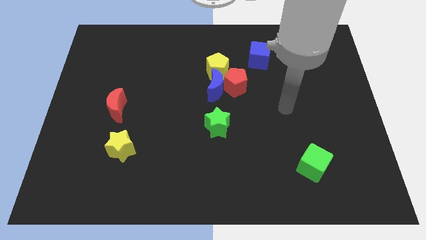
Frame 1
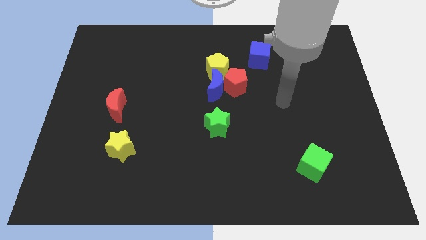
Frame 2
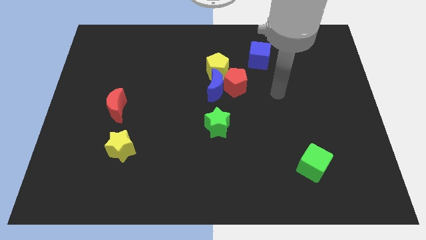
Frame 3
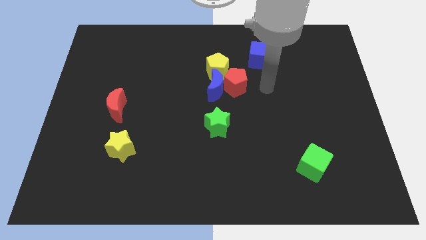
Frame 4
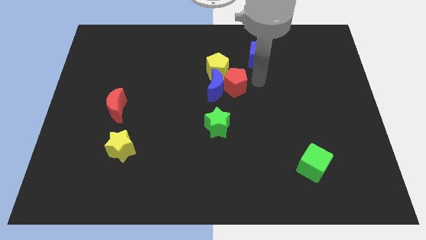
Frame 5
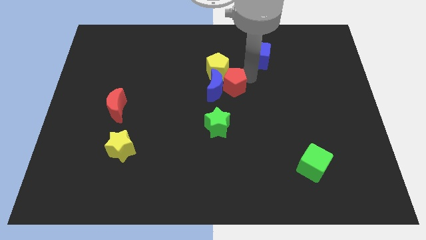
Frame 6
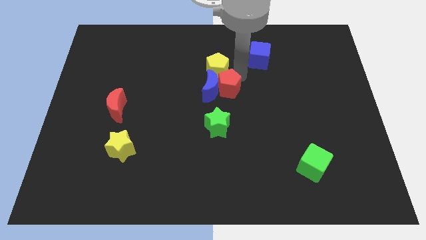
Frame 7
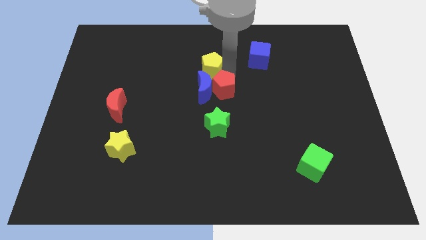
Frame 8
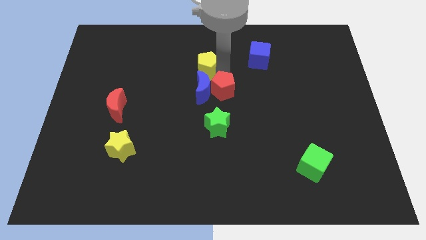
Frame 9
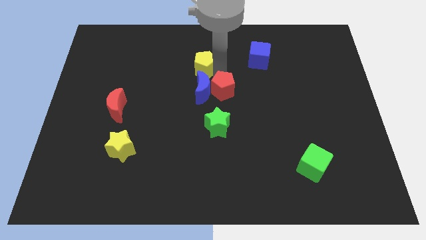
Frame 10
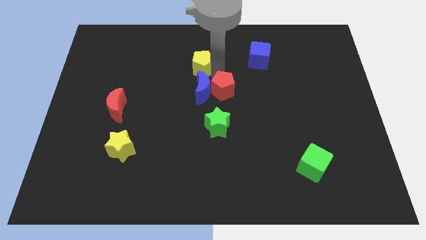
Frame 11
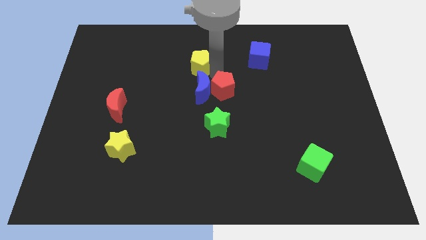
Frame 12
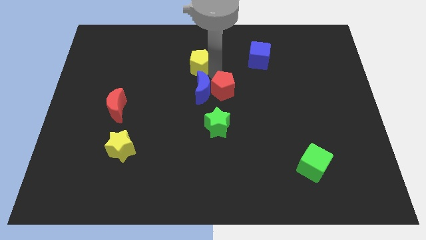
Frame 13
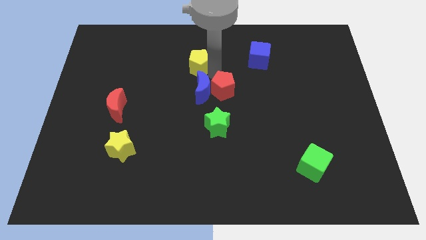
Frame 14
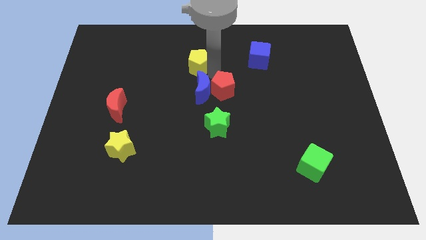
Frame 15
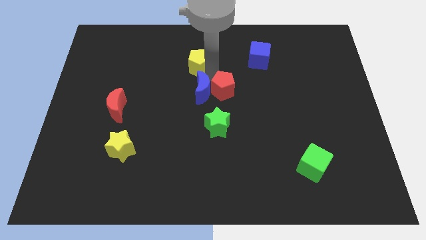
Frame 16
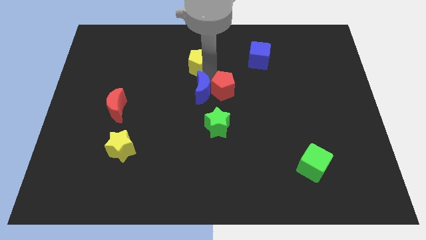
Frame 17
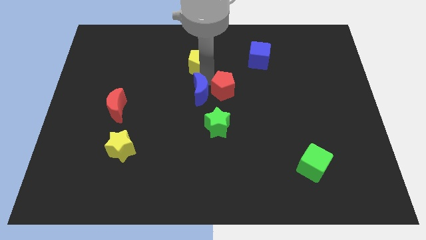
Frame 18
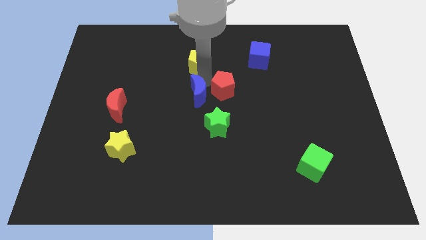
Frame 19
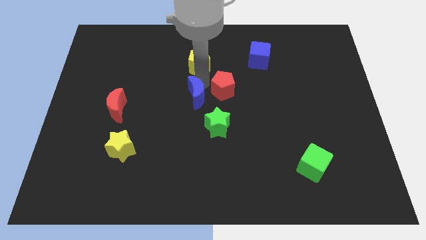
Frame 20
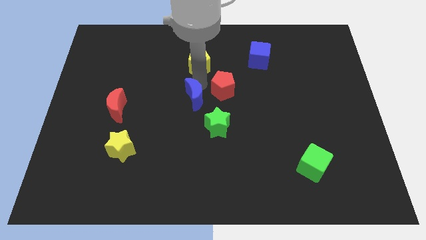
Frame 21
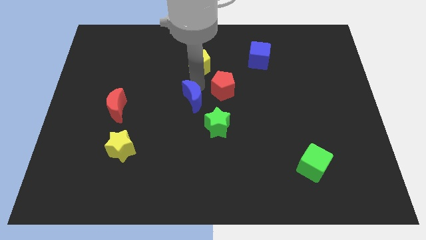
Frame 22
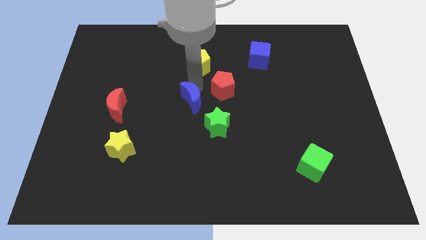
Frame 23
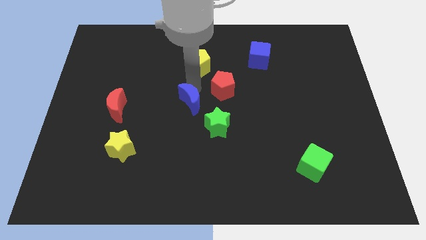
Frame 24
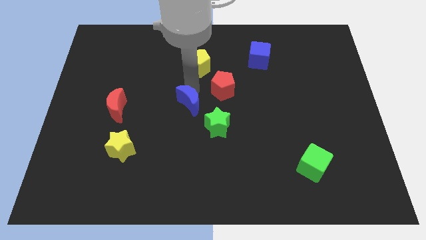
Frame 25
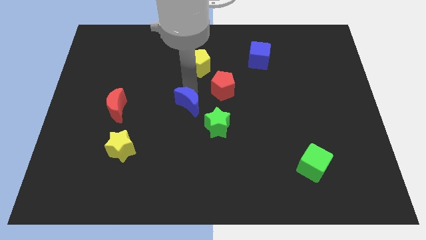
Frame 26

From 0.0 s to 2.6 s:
separate the blue moon from the red pentagon and yellow pentagon

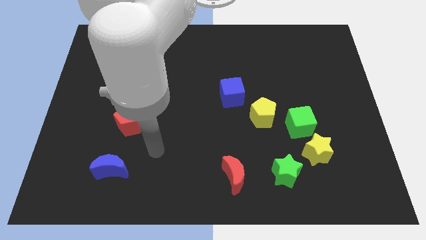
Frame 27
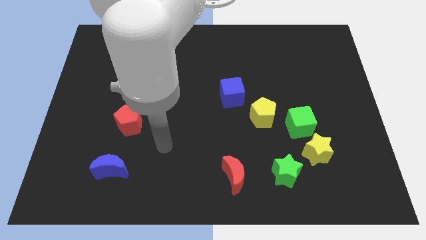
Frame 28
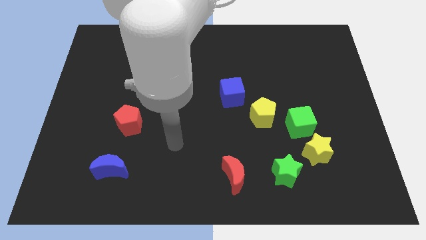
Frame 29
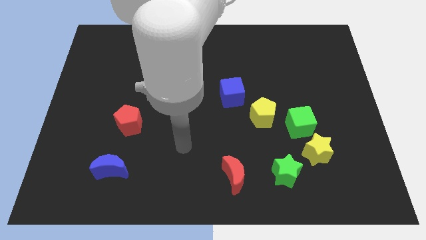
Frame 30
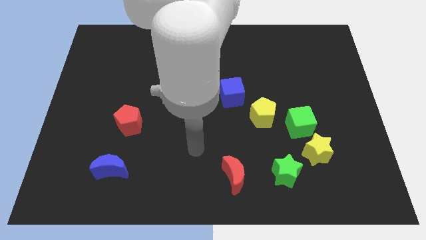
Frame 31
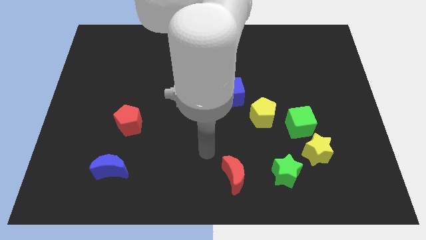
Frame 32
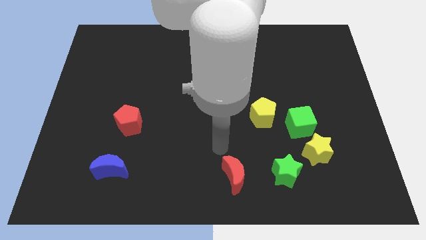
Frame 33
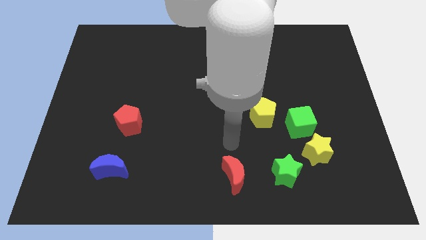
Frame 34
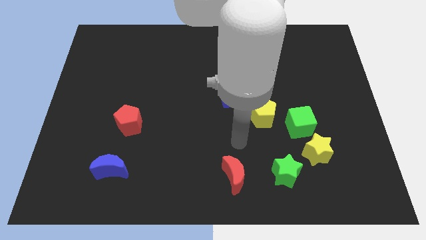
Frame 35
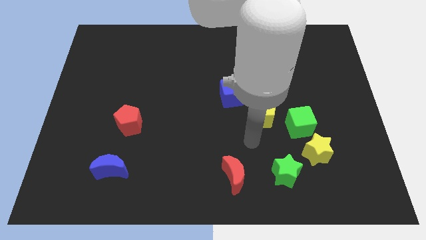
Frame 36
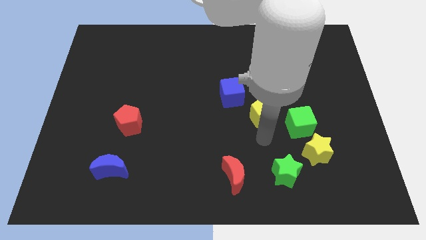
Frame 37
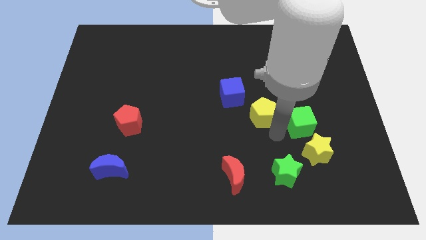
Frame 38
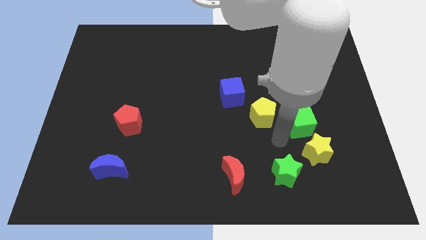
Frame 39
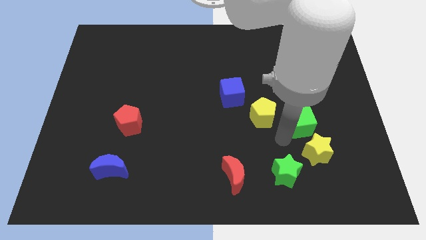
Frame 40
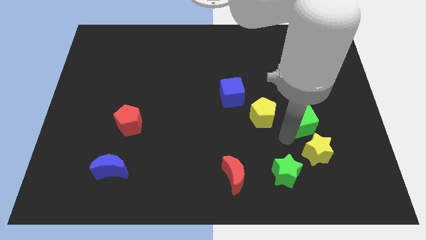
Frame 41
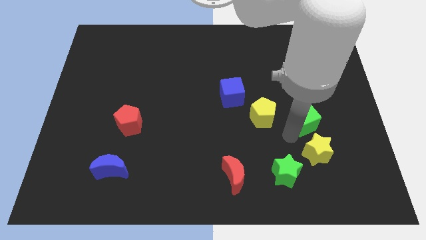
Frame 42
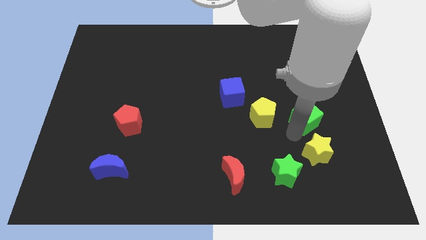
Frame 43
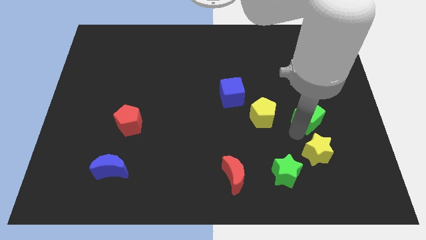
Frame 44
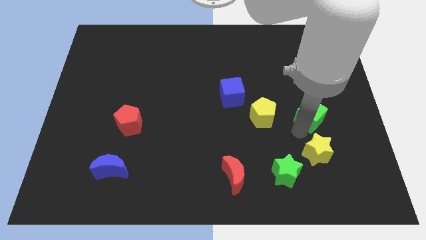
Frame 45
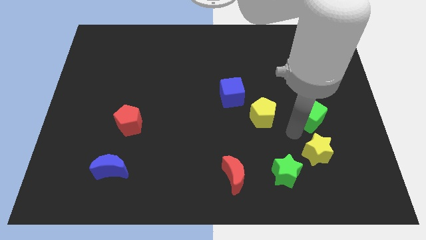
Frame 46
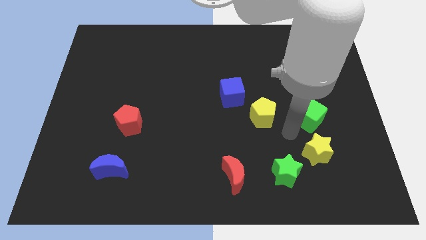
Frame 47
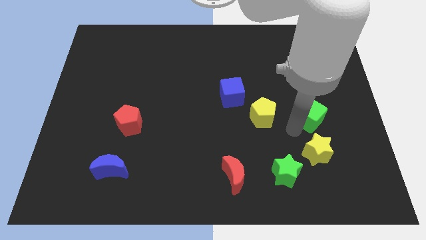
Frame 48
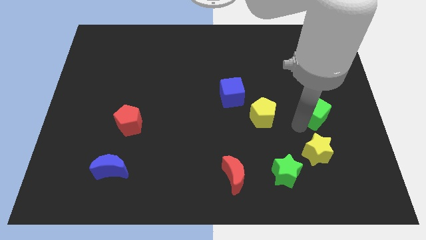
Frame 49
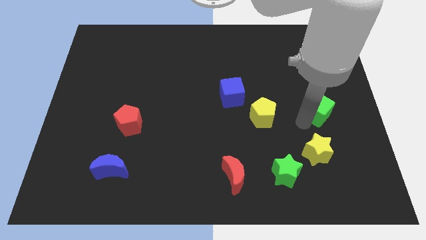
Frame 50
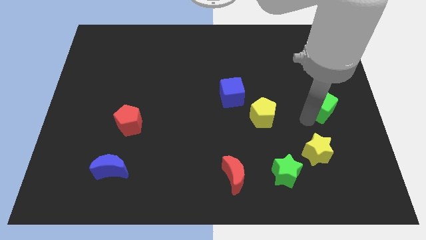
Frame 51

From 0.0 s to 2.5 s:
pull the green cube apart from the yellow star and yellow pentagon

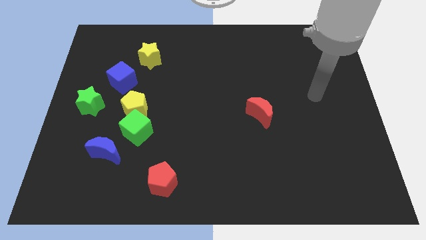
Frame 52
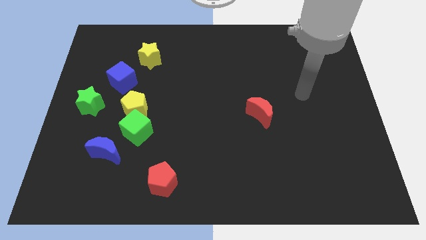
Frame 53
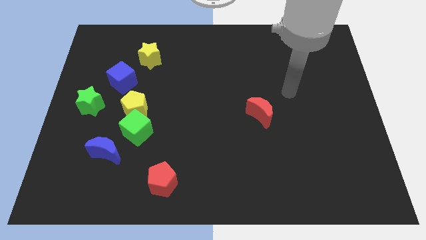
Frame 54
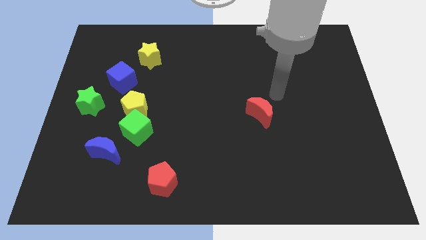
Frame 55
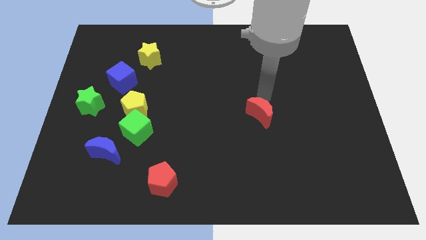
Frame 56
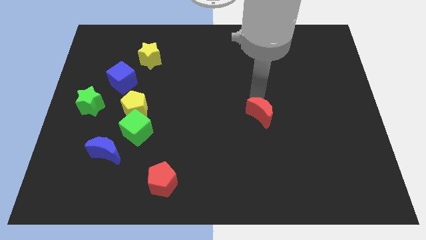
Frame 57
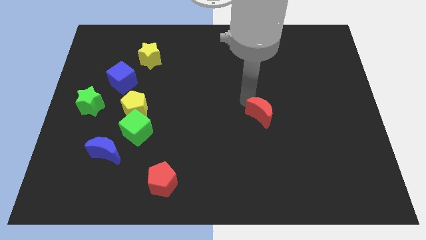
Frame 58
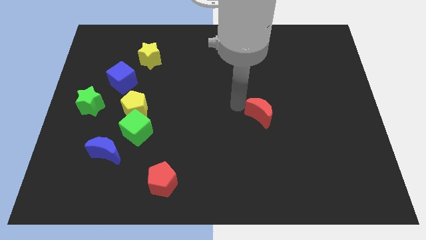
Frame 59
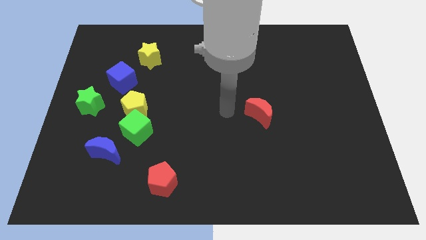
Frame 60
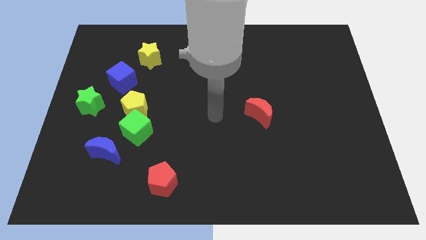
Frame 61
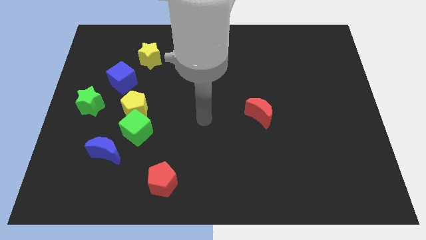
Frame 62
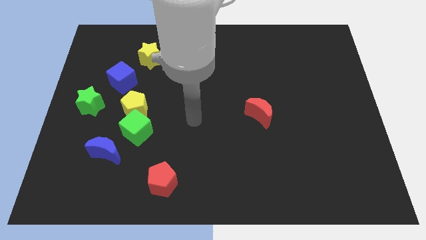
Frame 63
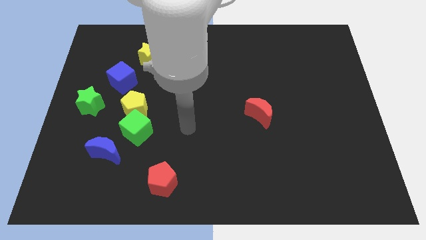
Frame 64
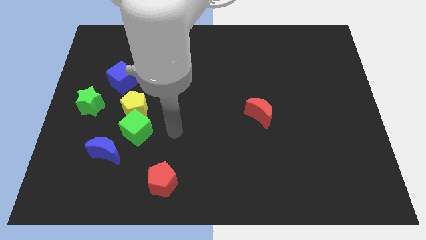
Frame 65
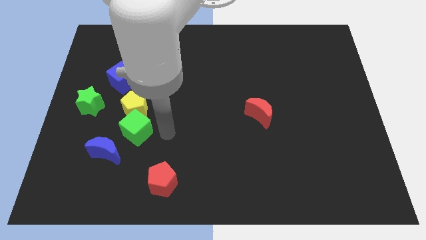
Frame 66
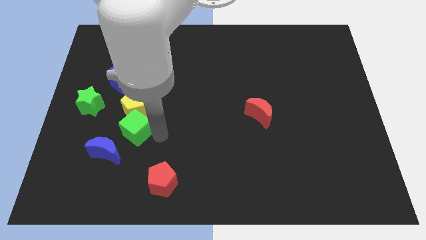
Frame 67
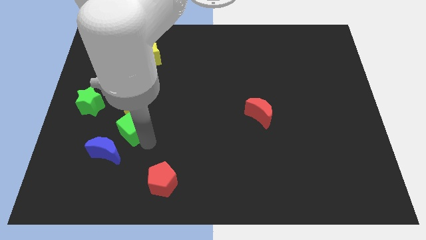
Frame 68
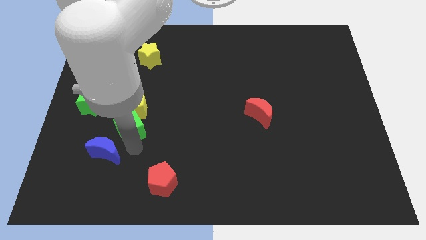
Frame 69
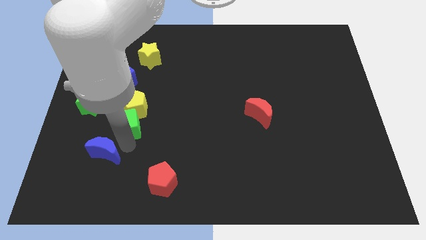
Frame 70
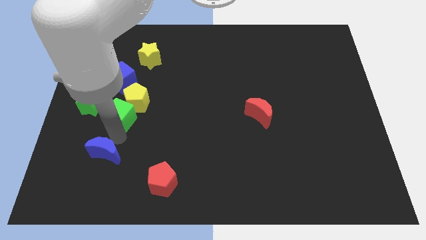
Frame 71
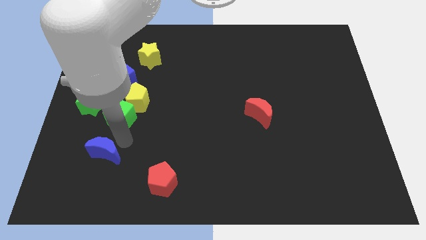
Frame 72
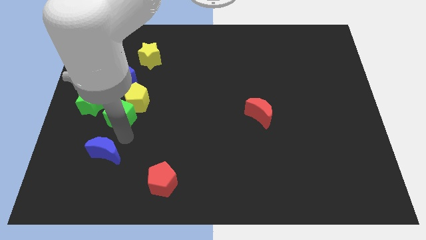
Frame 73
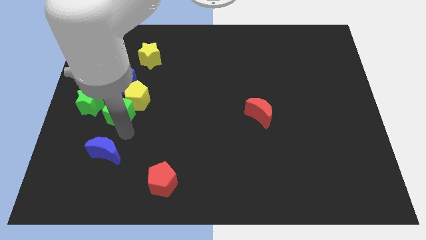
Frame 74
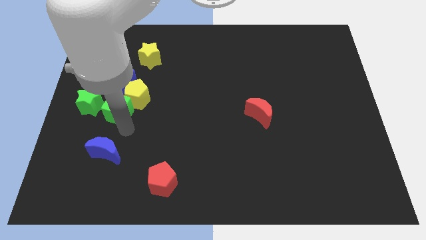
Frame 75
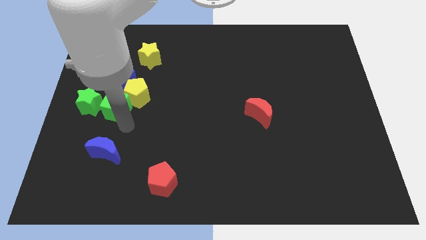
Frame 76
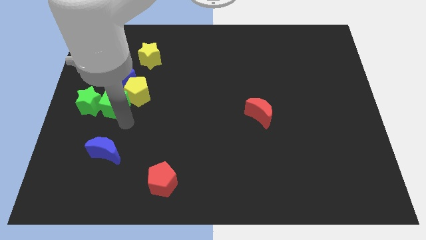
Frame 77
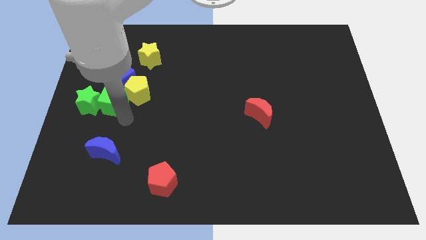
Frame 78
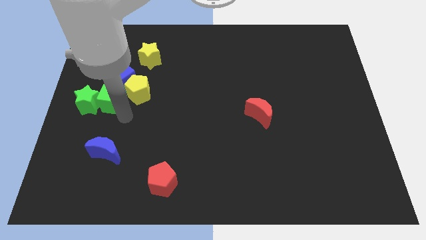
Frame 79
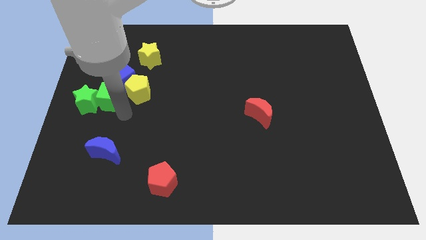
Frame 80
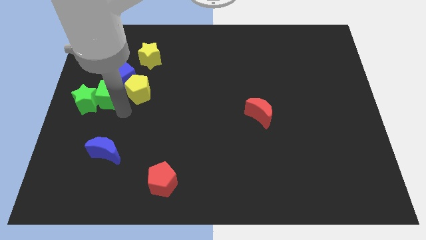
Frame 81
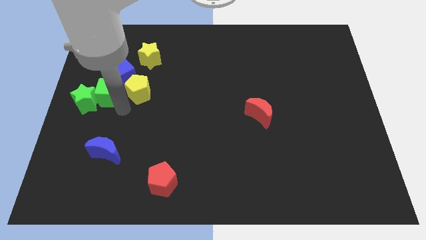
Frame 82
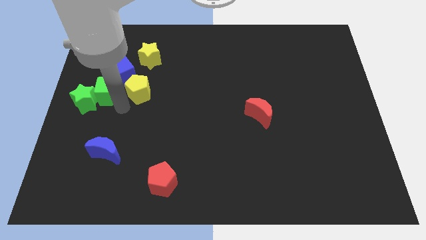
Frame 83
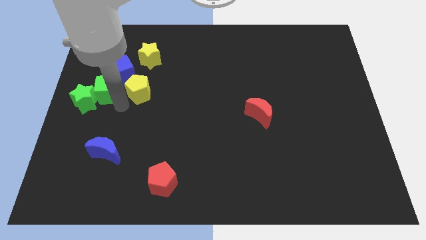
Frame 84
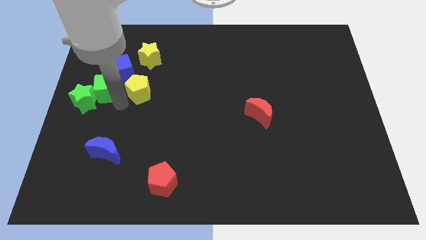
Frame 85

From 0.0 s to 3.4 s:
separate the green cube from the yellow pentagon and blue moon

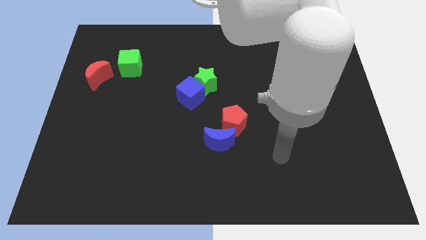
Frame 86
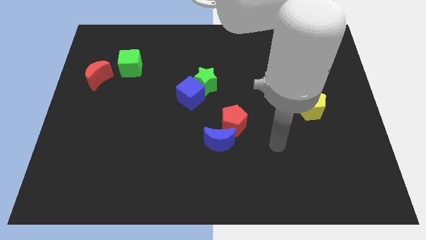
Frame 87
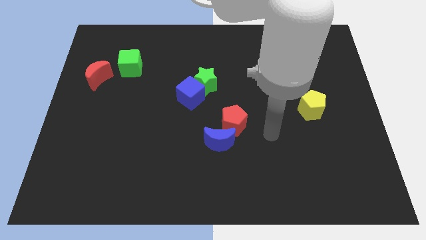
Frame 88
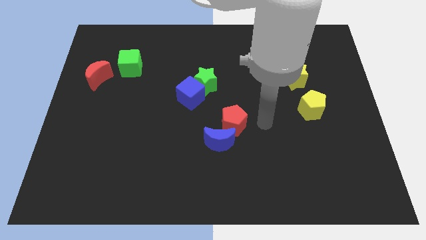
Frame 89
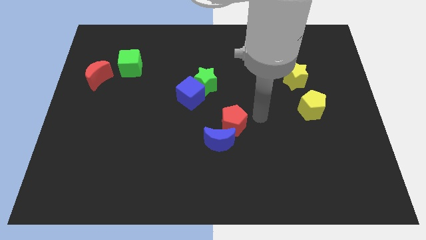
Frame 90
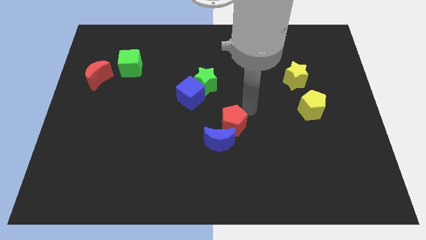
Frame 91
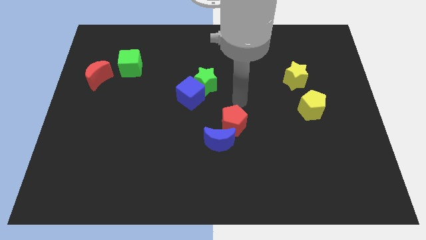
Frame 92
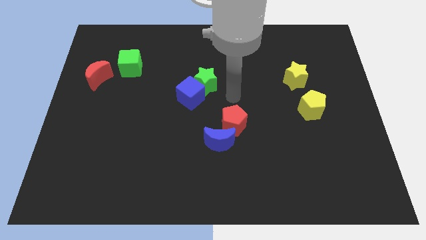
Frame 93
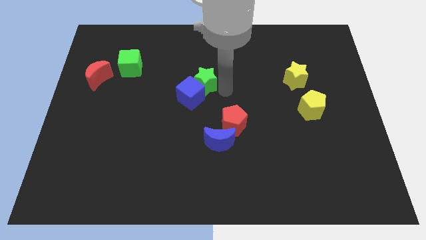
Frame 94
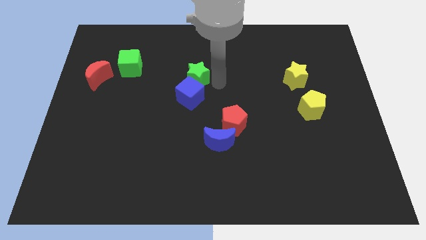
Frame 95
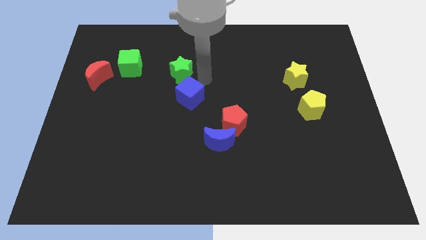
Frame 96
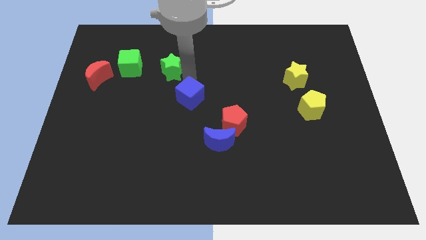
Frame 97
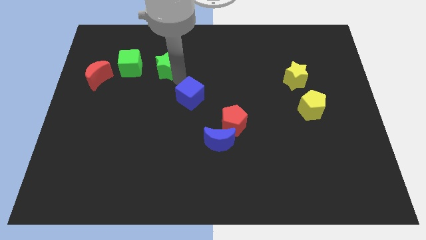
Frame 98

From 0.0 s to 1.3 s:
pull the blue cube apart from the green star
